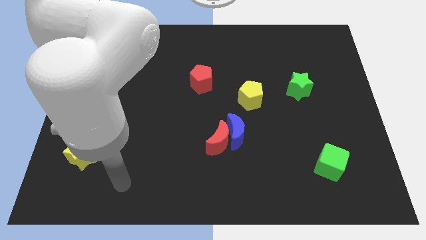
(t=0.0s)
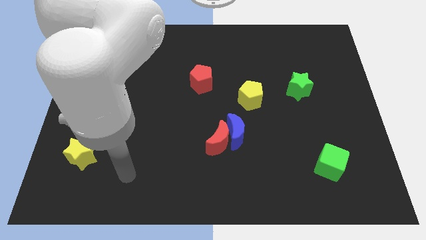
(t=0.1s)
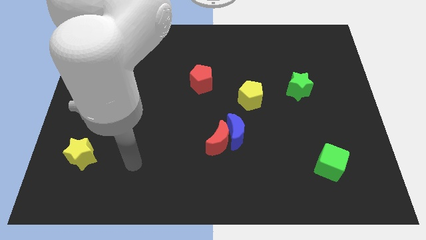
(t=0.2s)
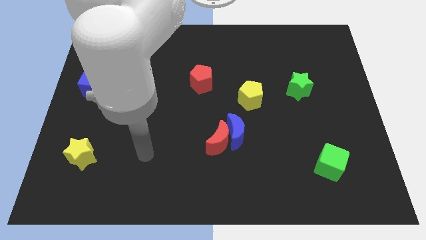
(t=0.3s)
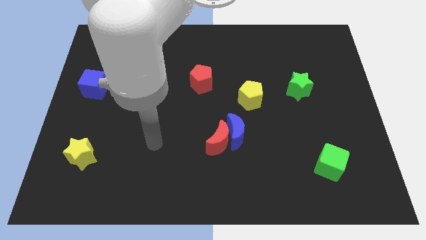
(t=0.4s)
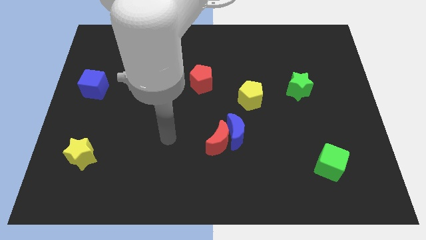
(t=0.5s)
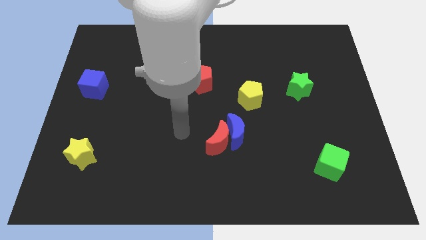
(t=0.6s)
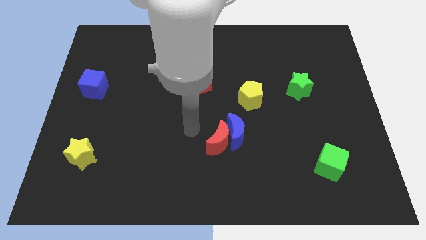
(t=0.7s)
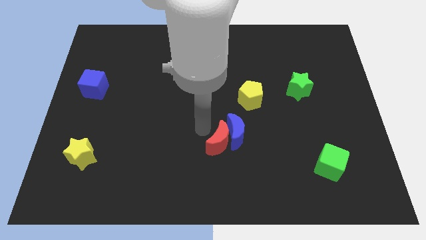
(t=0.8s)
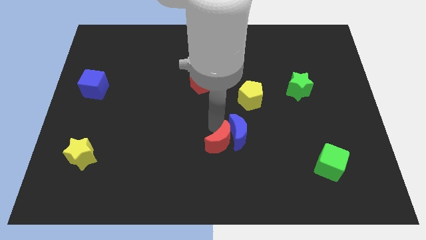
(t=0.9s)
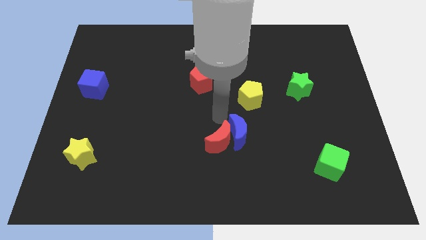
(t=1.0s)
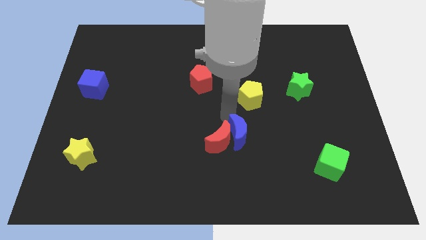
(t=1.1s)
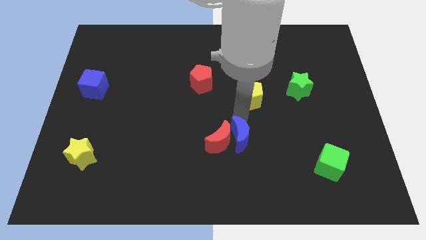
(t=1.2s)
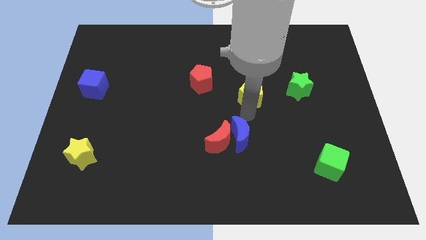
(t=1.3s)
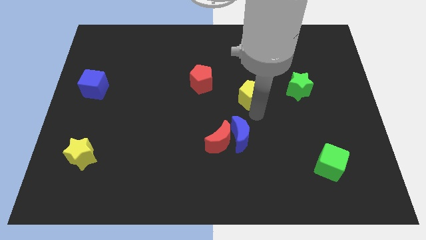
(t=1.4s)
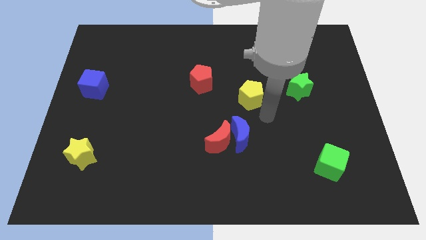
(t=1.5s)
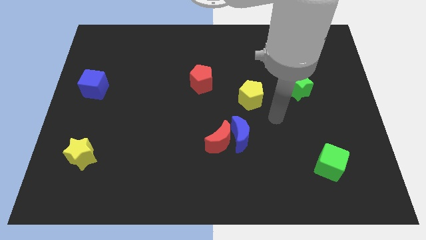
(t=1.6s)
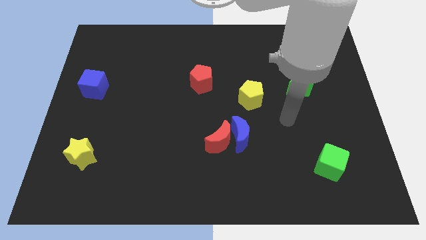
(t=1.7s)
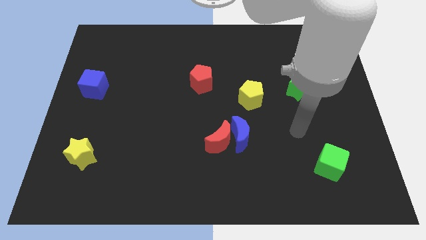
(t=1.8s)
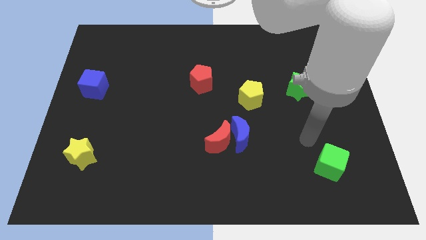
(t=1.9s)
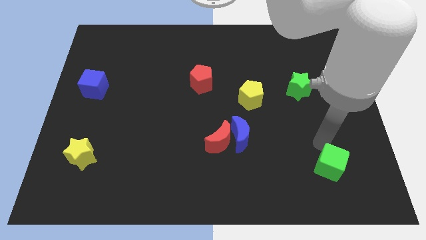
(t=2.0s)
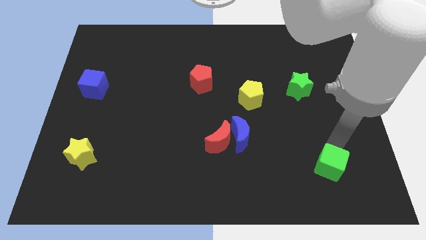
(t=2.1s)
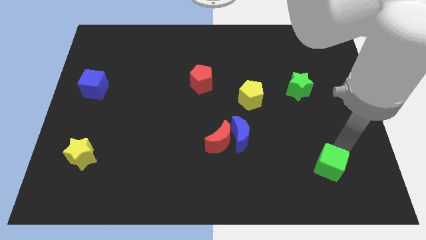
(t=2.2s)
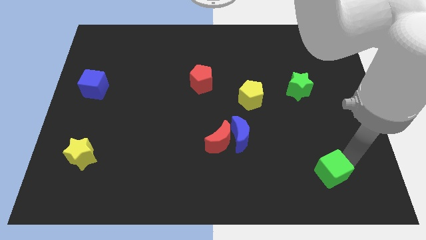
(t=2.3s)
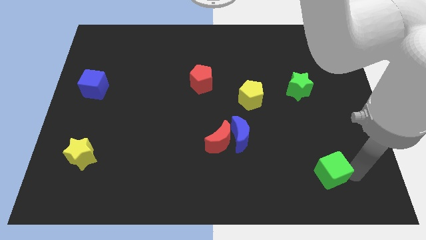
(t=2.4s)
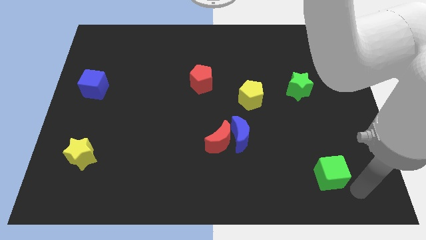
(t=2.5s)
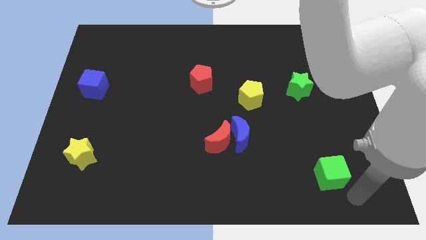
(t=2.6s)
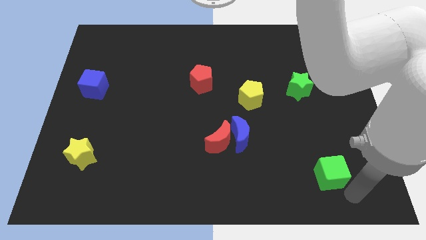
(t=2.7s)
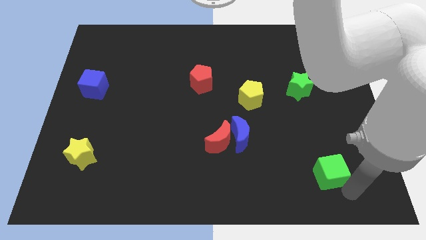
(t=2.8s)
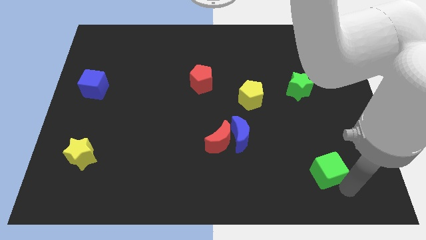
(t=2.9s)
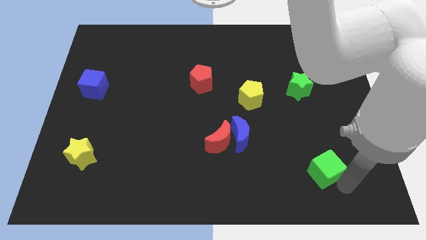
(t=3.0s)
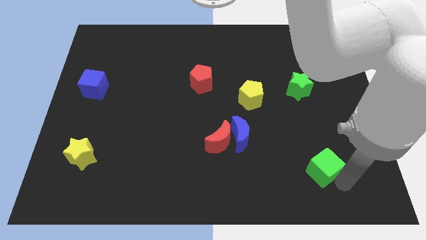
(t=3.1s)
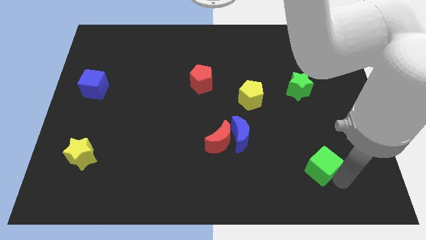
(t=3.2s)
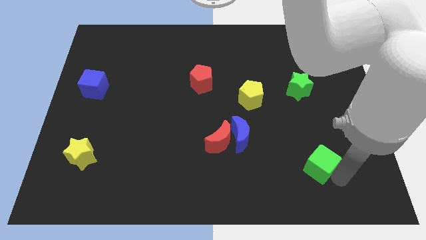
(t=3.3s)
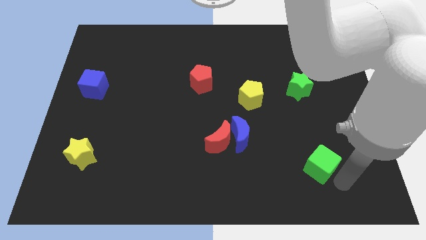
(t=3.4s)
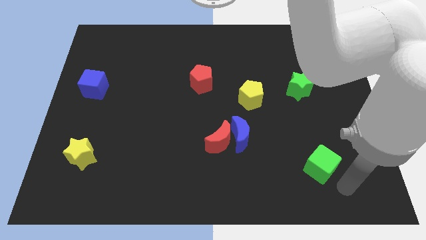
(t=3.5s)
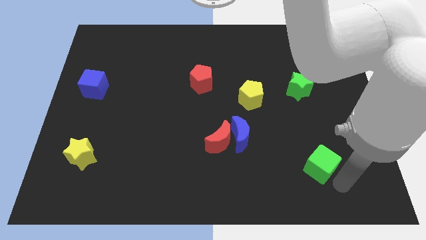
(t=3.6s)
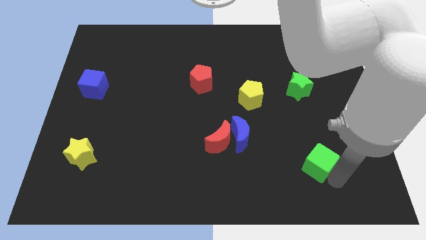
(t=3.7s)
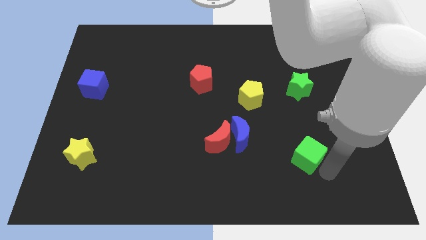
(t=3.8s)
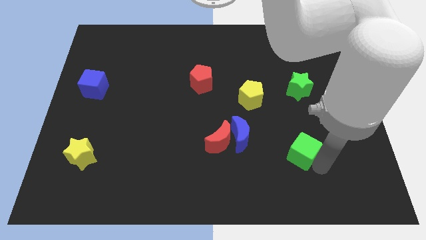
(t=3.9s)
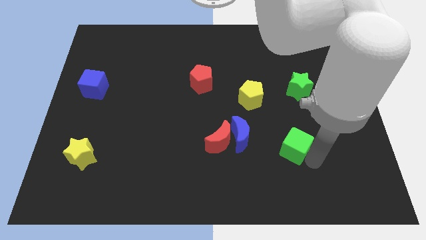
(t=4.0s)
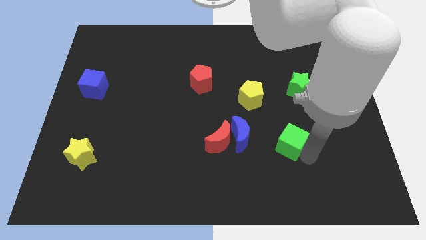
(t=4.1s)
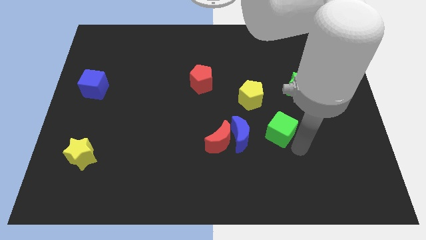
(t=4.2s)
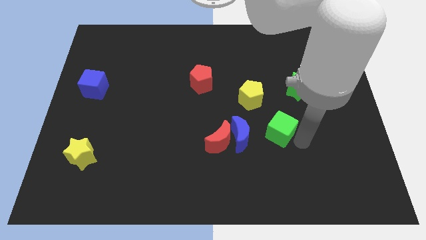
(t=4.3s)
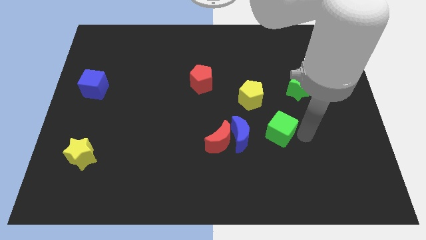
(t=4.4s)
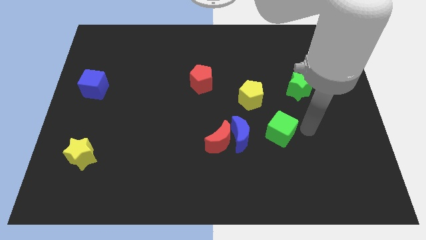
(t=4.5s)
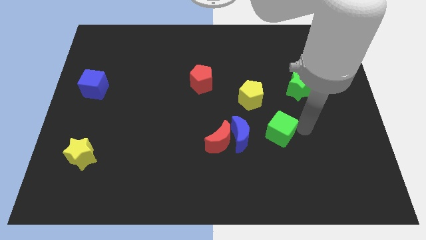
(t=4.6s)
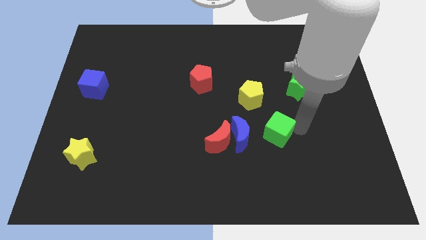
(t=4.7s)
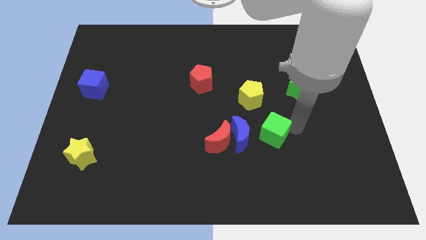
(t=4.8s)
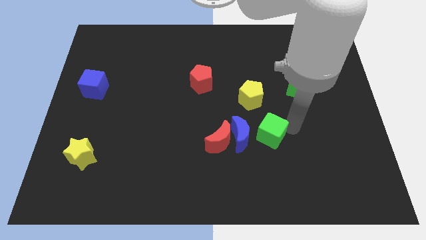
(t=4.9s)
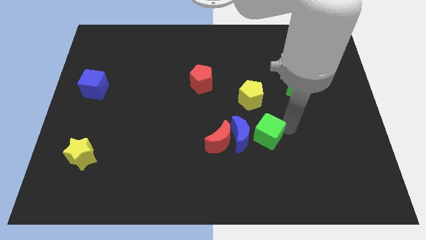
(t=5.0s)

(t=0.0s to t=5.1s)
move the green cube close to the blue moon

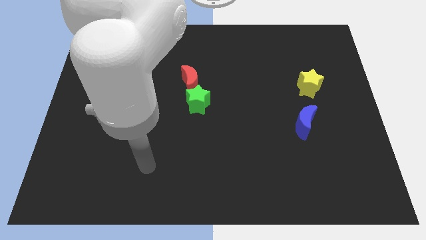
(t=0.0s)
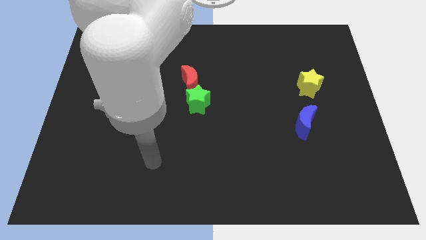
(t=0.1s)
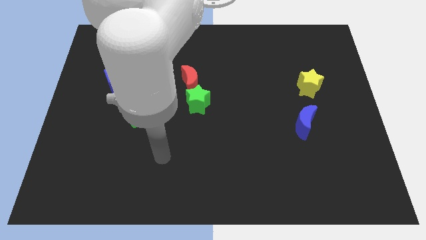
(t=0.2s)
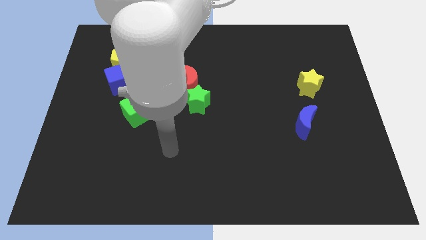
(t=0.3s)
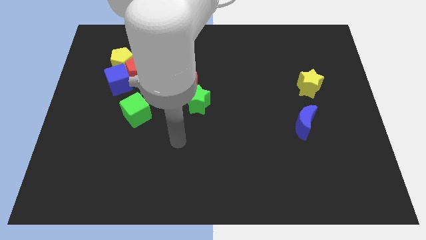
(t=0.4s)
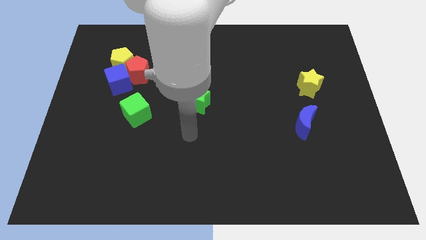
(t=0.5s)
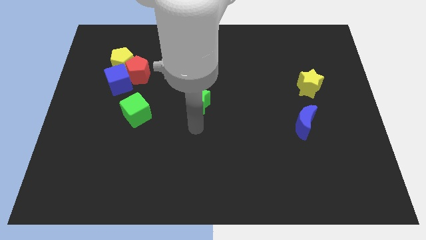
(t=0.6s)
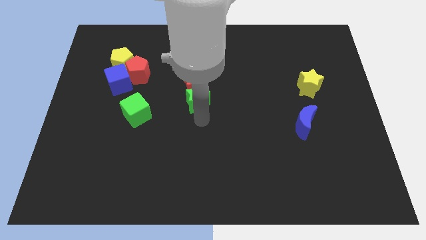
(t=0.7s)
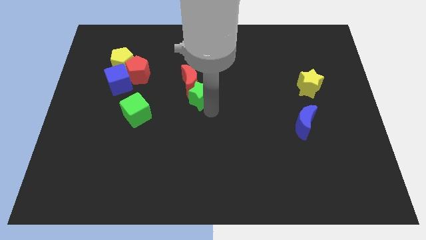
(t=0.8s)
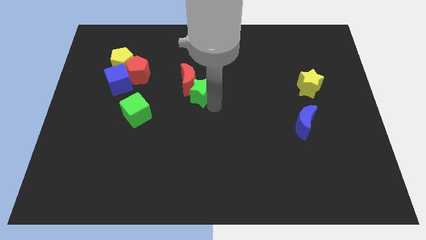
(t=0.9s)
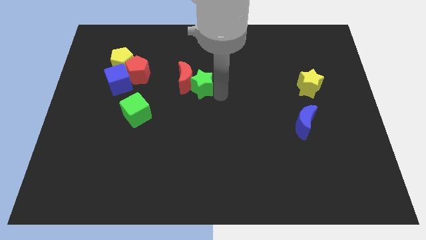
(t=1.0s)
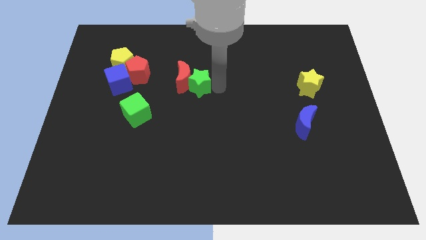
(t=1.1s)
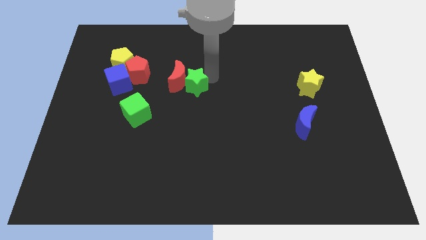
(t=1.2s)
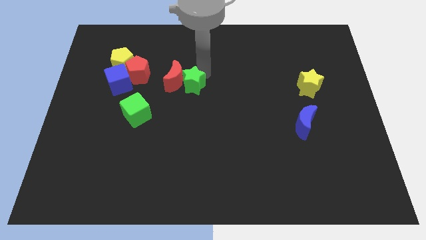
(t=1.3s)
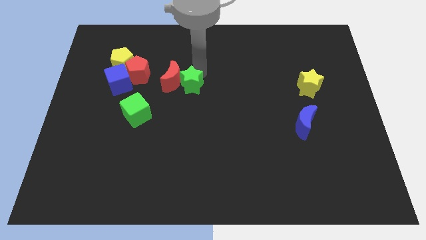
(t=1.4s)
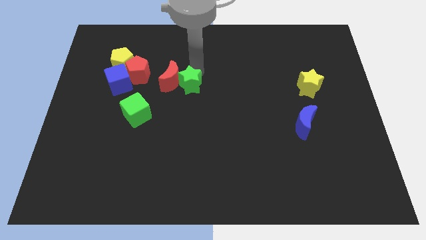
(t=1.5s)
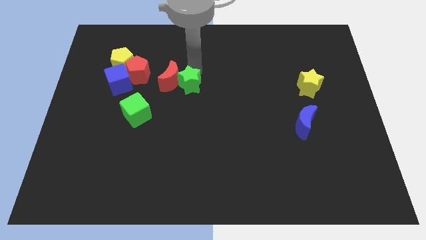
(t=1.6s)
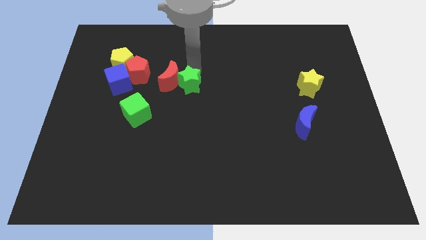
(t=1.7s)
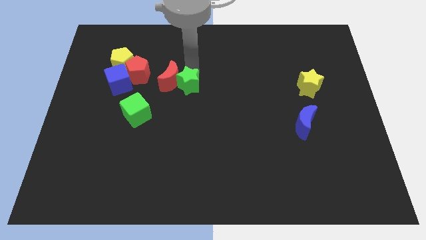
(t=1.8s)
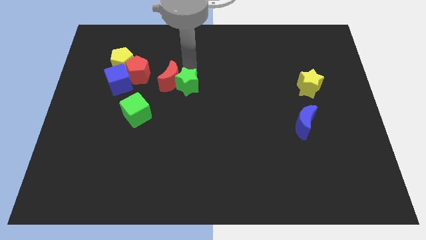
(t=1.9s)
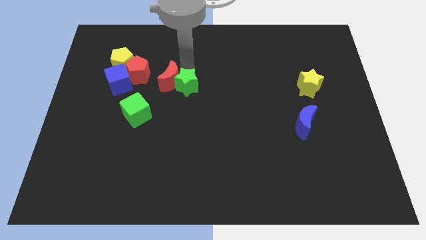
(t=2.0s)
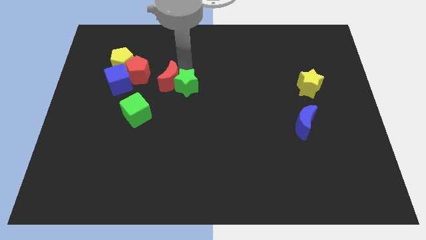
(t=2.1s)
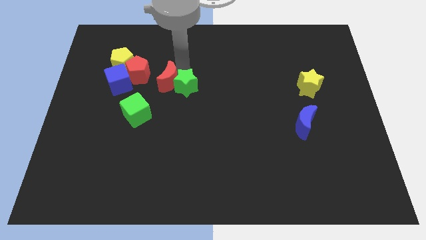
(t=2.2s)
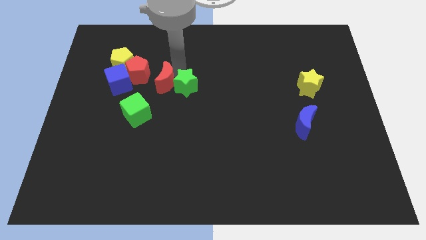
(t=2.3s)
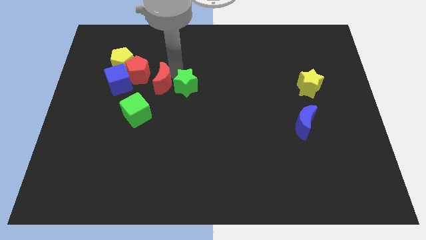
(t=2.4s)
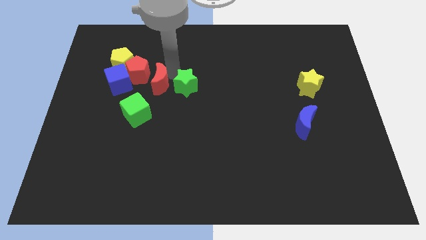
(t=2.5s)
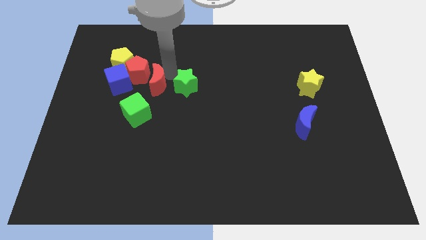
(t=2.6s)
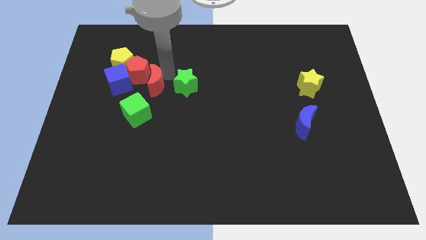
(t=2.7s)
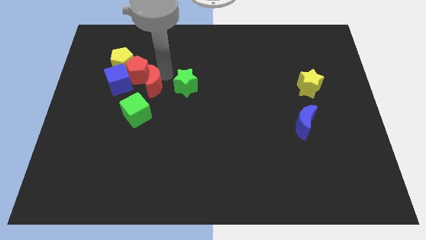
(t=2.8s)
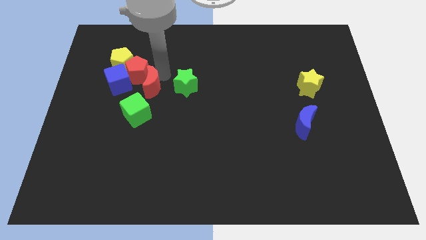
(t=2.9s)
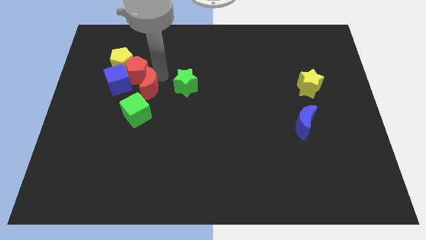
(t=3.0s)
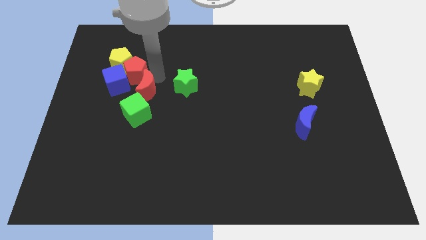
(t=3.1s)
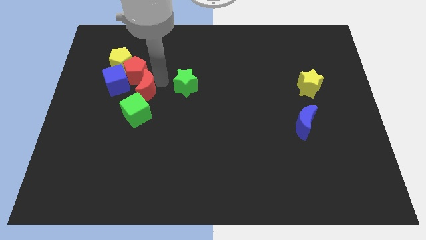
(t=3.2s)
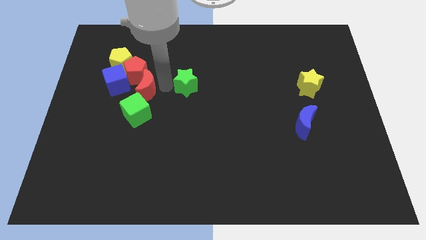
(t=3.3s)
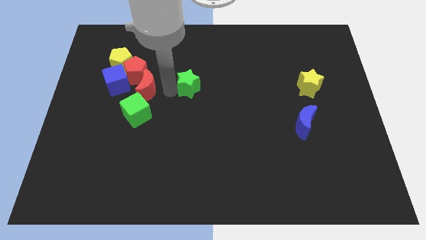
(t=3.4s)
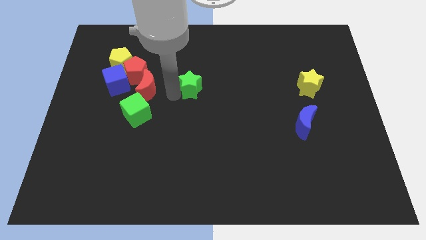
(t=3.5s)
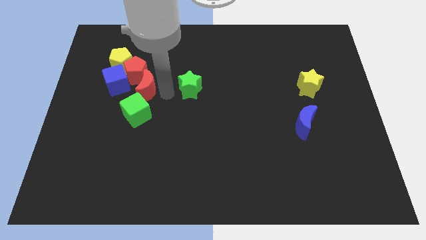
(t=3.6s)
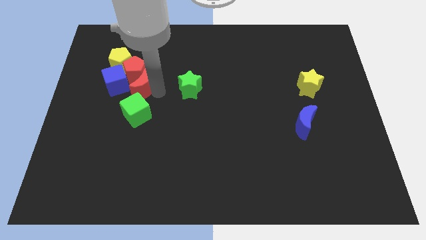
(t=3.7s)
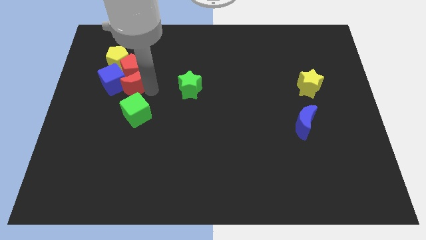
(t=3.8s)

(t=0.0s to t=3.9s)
slide the red moon next to the blue cube
